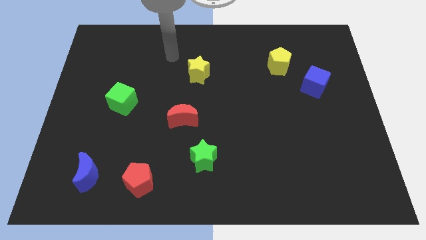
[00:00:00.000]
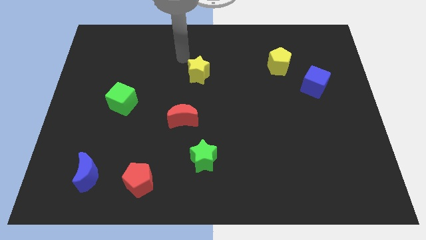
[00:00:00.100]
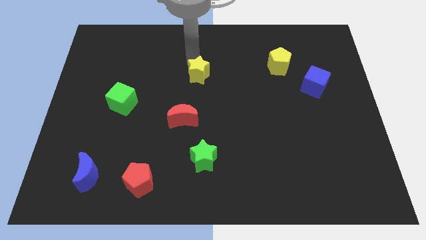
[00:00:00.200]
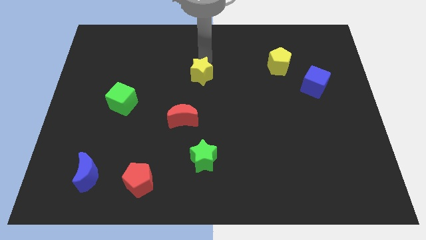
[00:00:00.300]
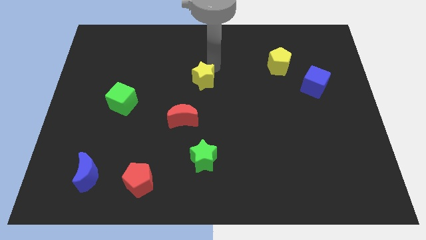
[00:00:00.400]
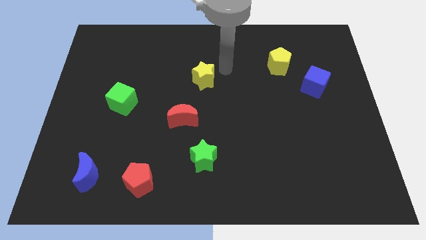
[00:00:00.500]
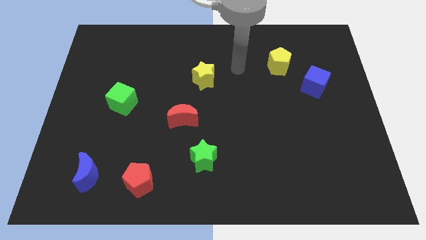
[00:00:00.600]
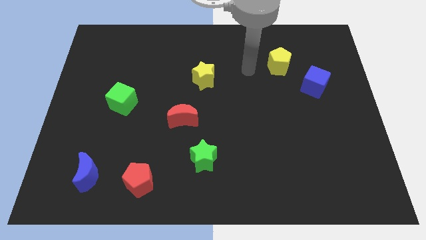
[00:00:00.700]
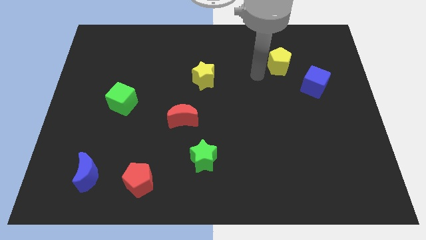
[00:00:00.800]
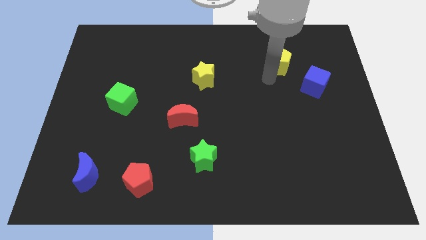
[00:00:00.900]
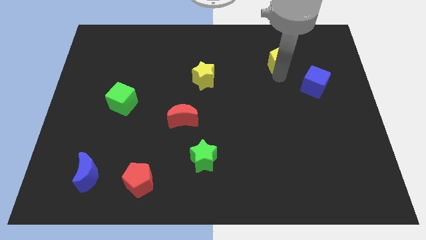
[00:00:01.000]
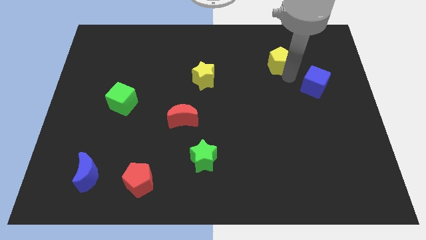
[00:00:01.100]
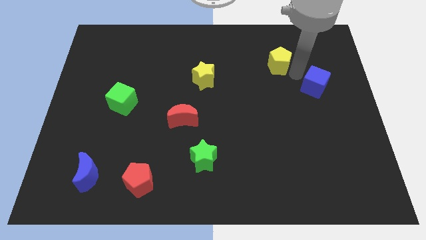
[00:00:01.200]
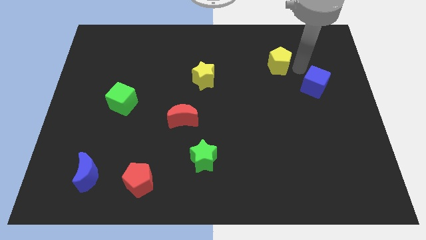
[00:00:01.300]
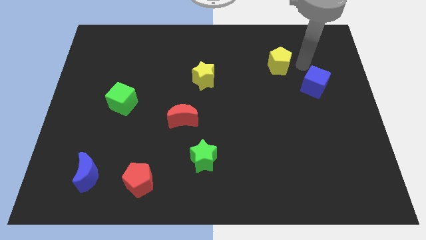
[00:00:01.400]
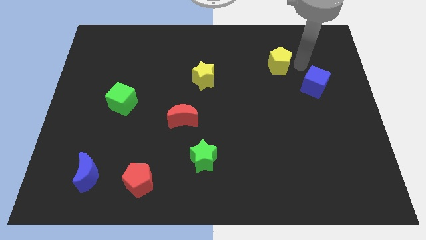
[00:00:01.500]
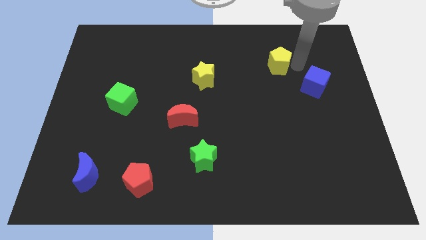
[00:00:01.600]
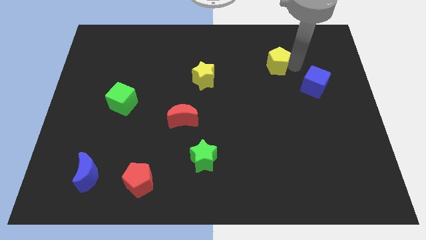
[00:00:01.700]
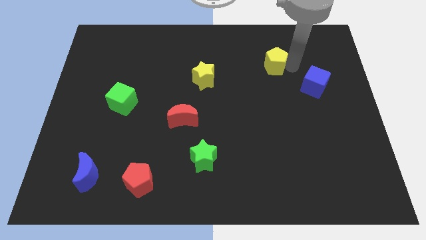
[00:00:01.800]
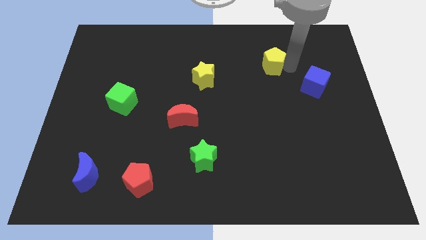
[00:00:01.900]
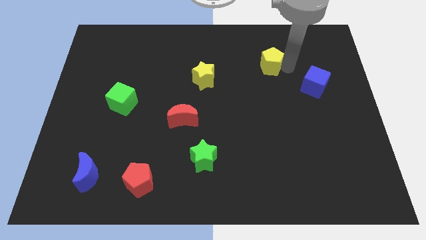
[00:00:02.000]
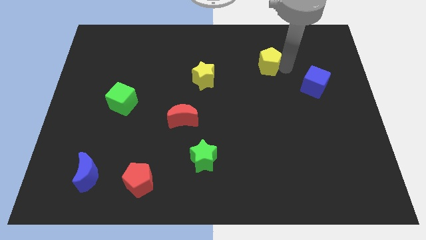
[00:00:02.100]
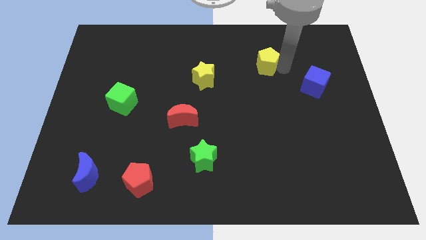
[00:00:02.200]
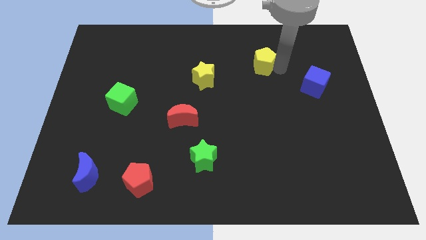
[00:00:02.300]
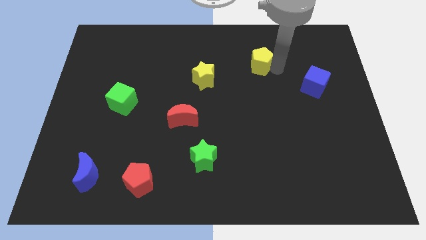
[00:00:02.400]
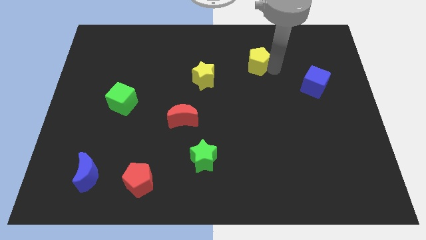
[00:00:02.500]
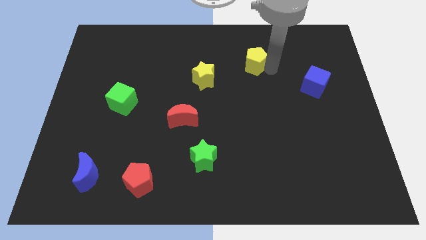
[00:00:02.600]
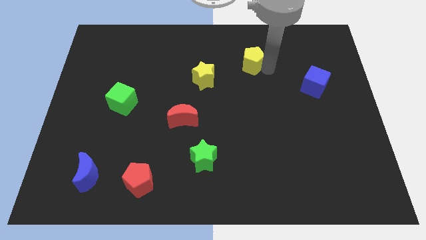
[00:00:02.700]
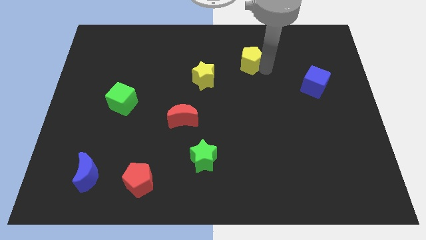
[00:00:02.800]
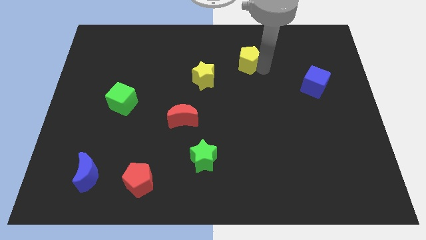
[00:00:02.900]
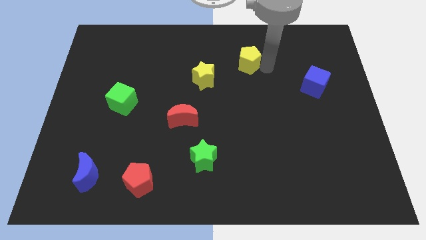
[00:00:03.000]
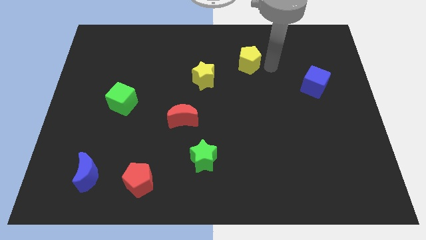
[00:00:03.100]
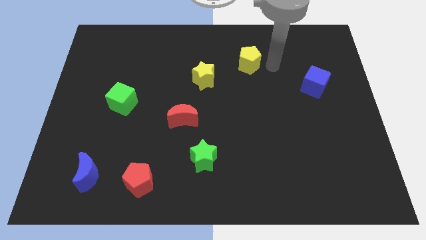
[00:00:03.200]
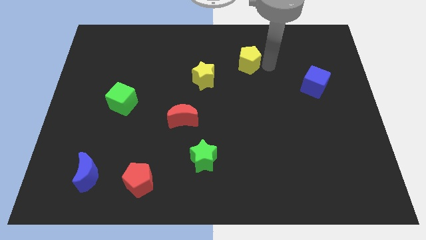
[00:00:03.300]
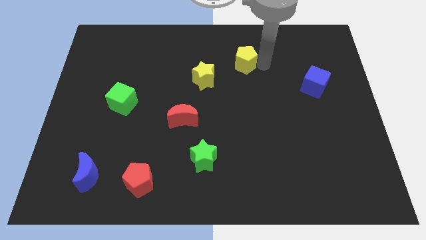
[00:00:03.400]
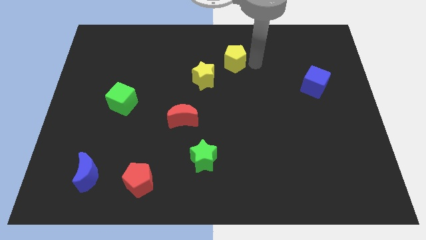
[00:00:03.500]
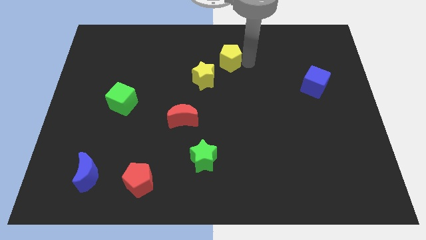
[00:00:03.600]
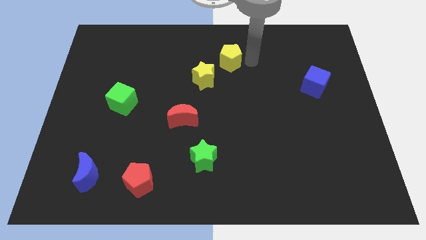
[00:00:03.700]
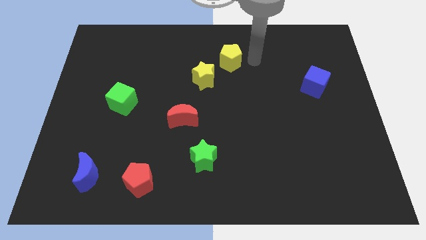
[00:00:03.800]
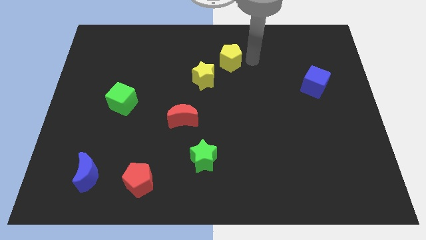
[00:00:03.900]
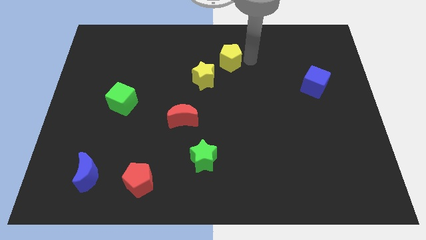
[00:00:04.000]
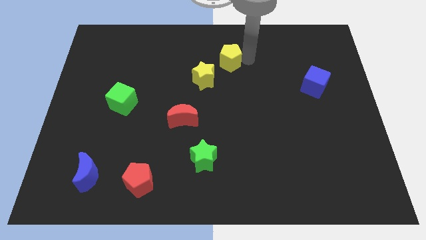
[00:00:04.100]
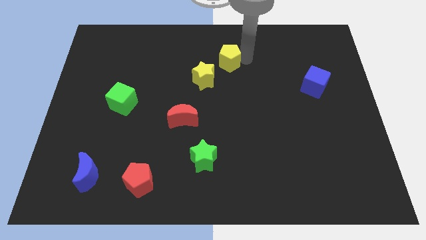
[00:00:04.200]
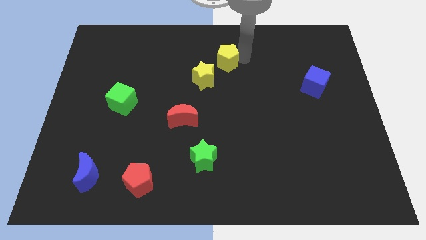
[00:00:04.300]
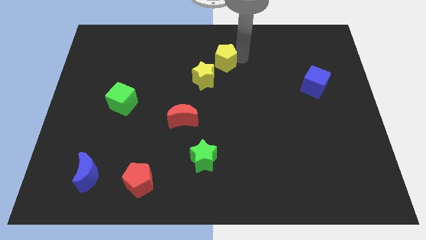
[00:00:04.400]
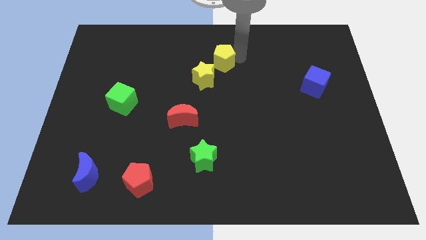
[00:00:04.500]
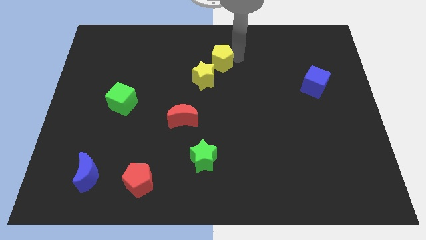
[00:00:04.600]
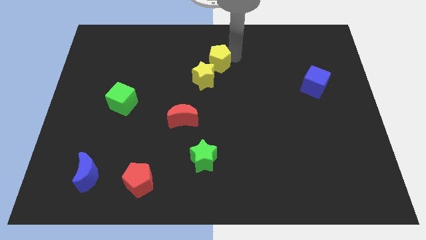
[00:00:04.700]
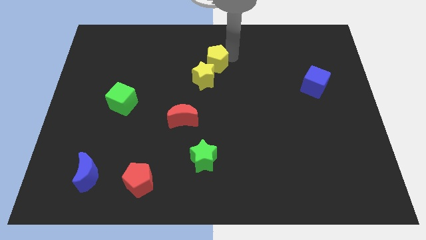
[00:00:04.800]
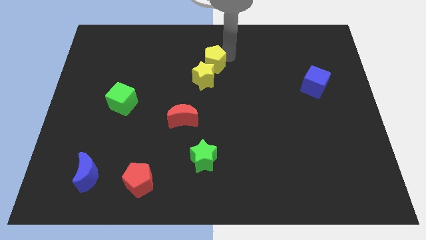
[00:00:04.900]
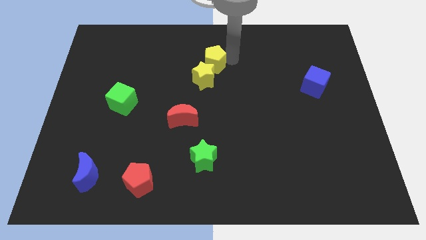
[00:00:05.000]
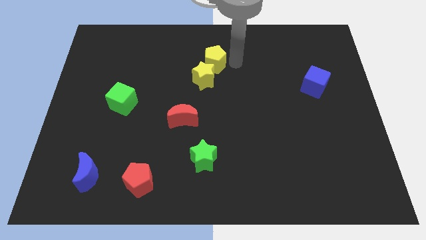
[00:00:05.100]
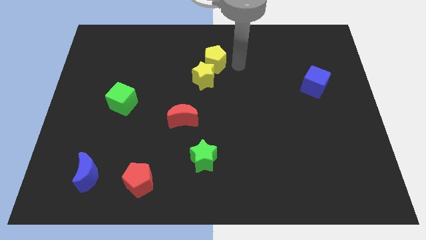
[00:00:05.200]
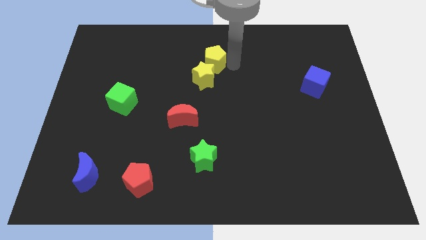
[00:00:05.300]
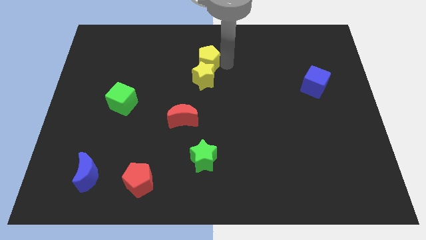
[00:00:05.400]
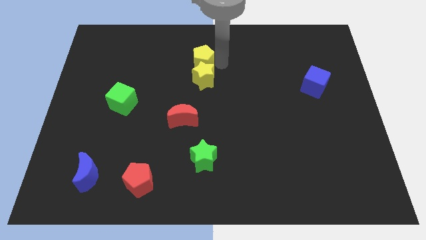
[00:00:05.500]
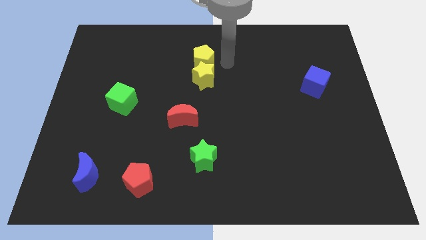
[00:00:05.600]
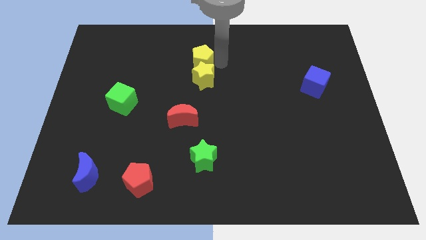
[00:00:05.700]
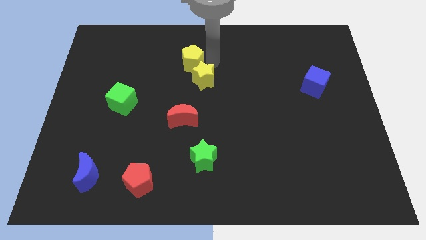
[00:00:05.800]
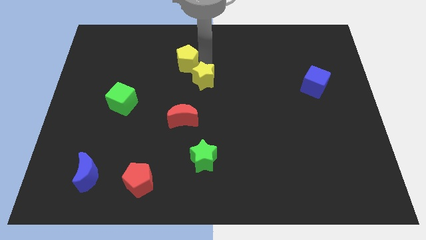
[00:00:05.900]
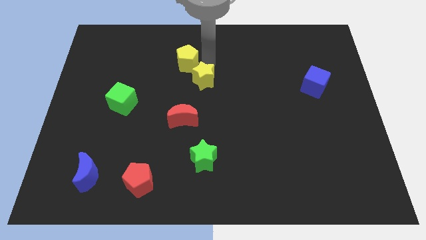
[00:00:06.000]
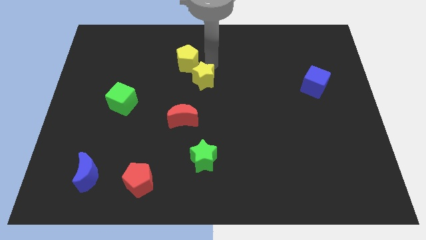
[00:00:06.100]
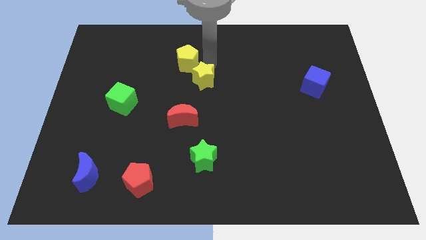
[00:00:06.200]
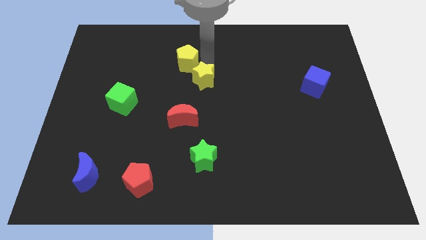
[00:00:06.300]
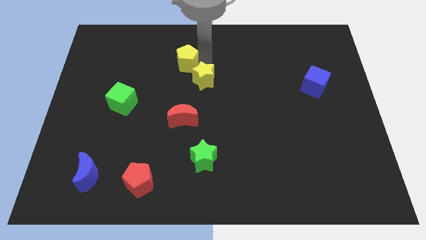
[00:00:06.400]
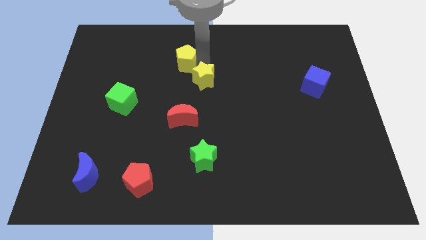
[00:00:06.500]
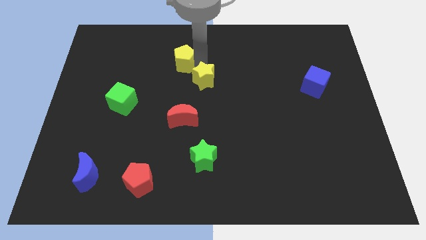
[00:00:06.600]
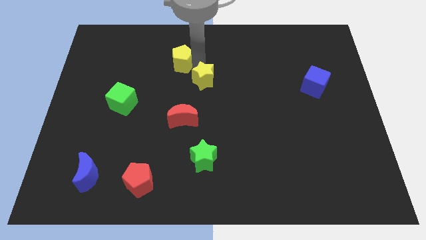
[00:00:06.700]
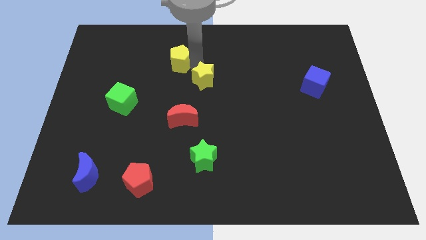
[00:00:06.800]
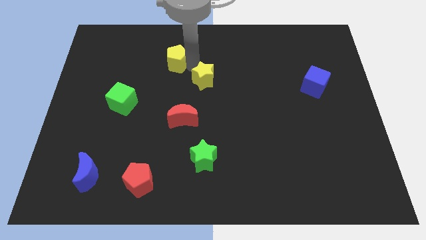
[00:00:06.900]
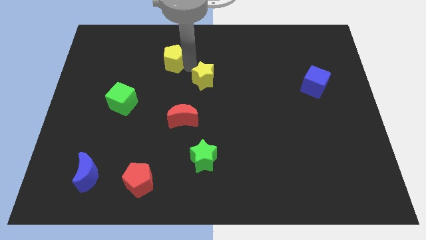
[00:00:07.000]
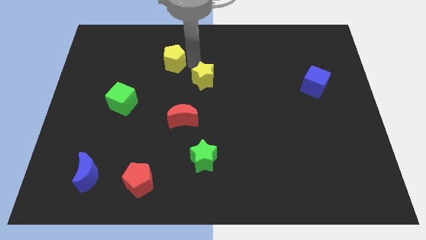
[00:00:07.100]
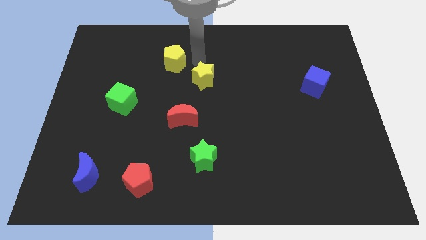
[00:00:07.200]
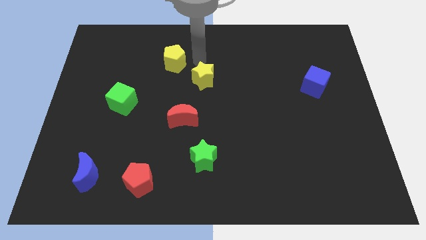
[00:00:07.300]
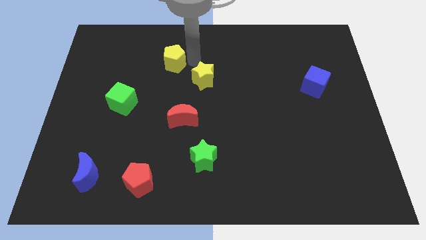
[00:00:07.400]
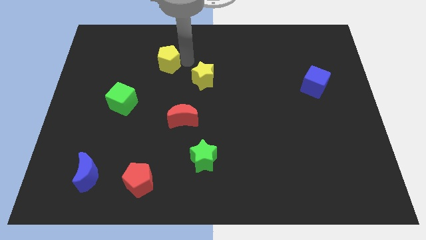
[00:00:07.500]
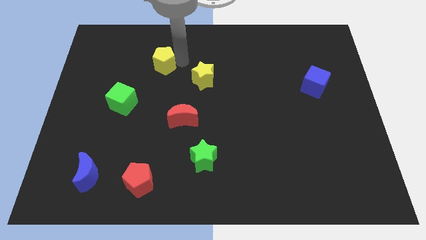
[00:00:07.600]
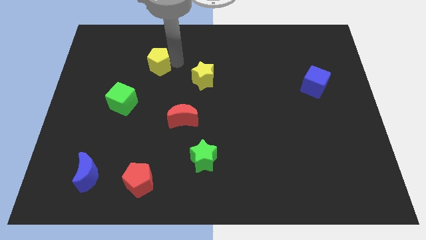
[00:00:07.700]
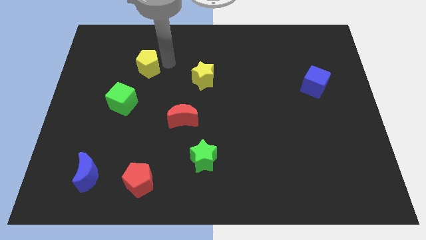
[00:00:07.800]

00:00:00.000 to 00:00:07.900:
move the yellow pentagon above the green cube
